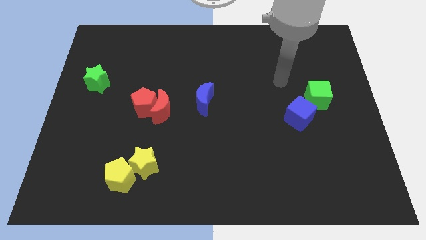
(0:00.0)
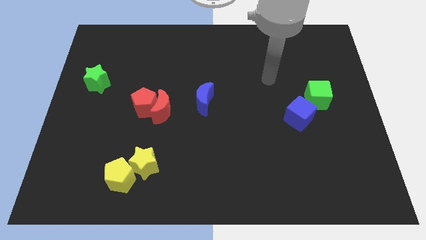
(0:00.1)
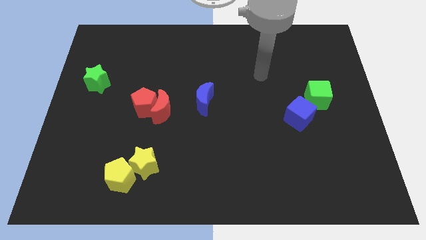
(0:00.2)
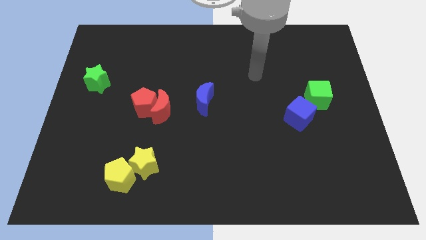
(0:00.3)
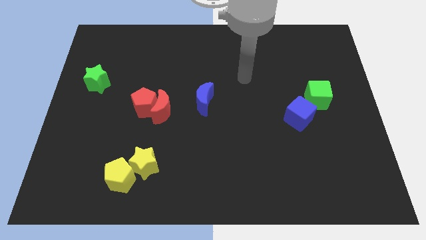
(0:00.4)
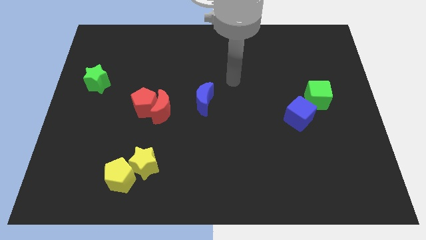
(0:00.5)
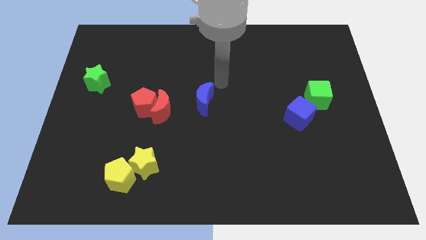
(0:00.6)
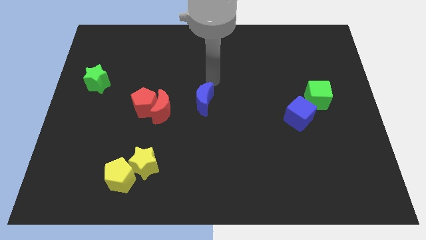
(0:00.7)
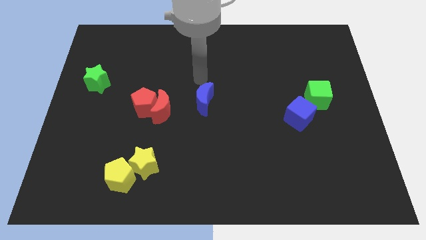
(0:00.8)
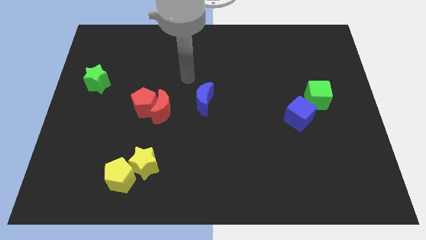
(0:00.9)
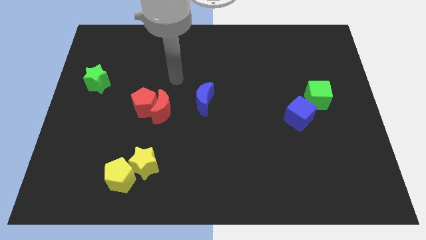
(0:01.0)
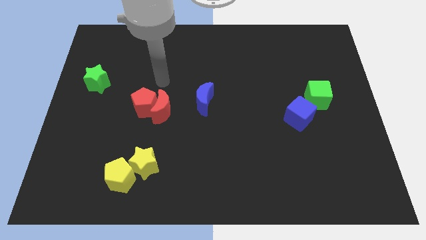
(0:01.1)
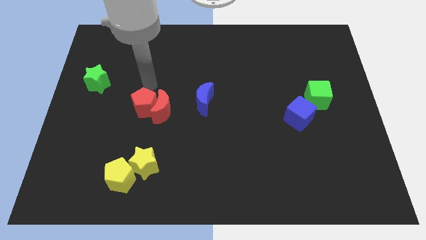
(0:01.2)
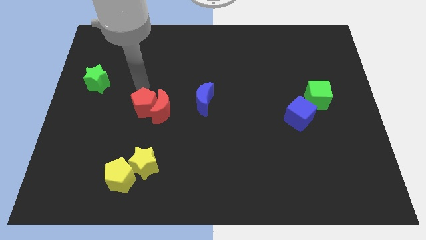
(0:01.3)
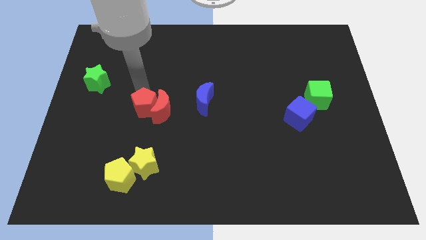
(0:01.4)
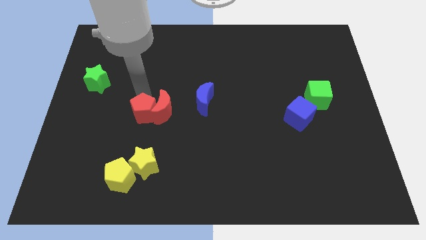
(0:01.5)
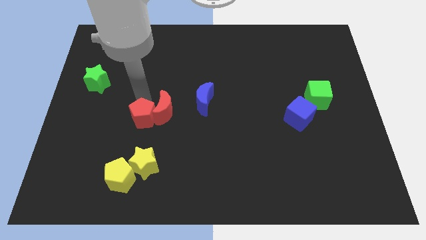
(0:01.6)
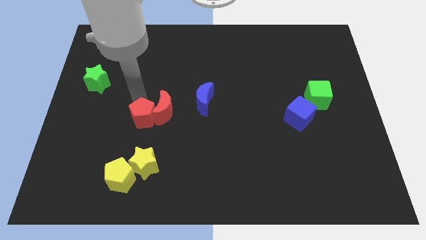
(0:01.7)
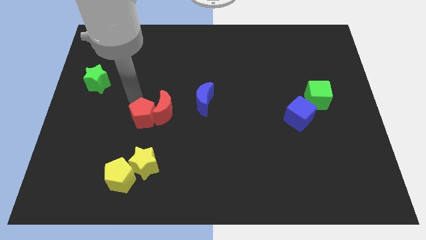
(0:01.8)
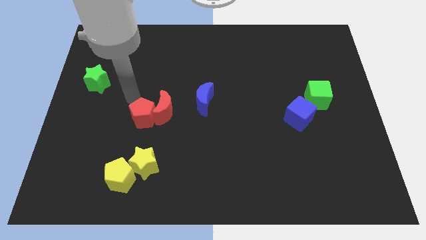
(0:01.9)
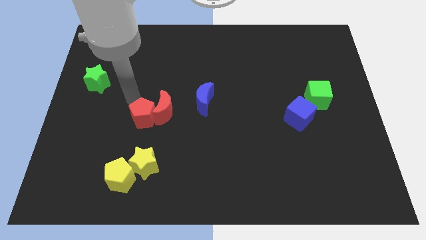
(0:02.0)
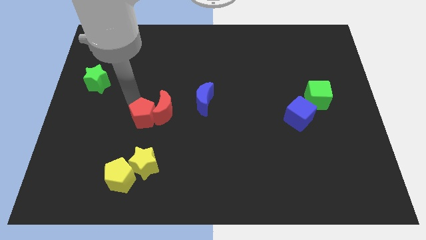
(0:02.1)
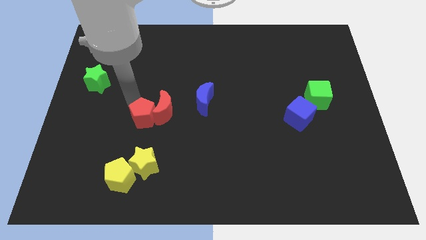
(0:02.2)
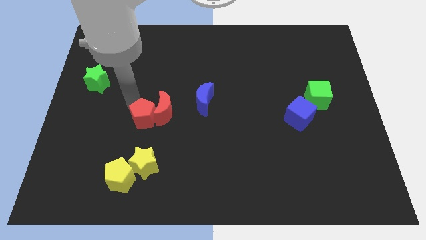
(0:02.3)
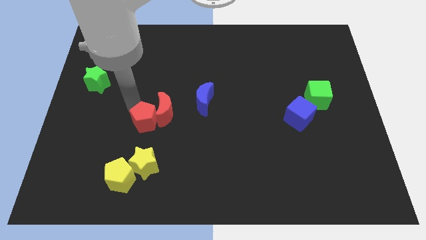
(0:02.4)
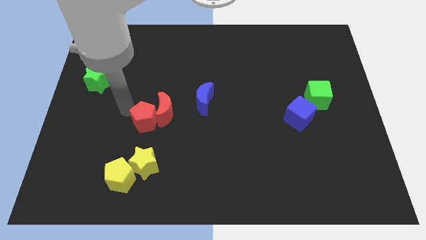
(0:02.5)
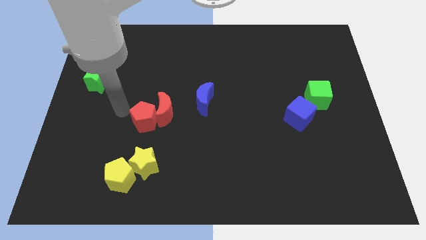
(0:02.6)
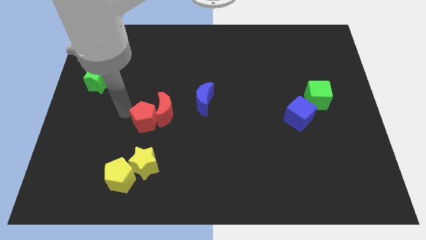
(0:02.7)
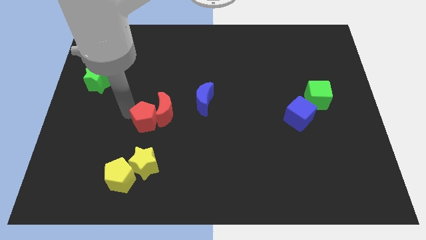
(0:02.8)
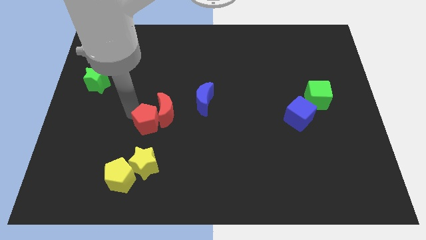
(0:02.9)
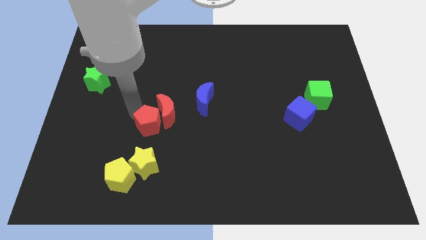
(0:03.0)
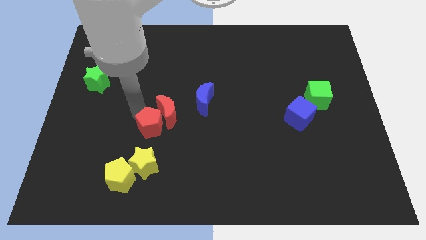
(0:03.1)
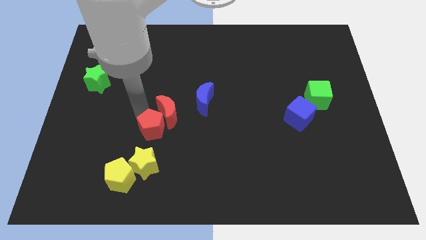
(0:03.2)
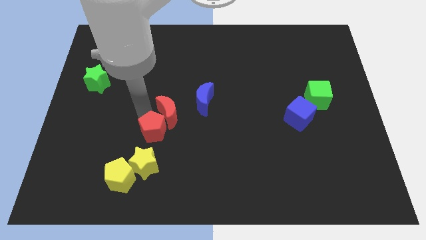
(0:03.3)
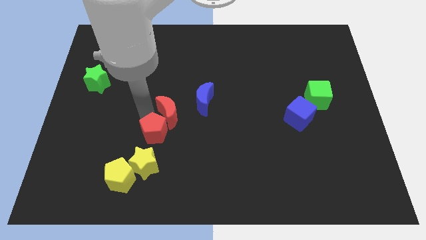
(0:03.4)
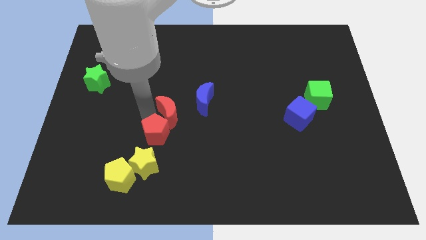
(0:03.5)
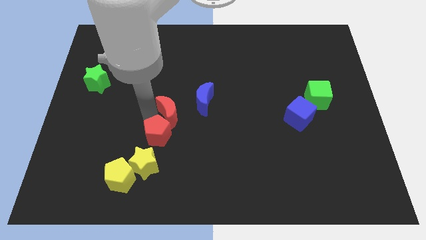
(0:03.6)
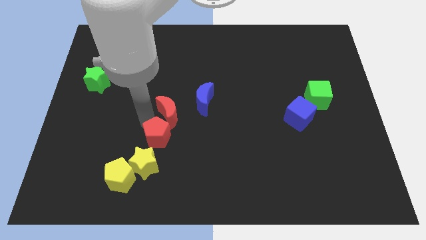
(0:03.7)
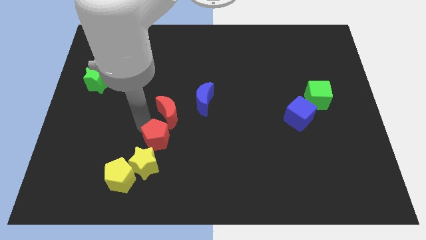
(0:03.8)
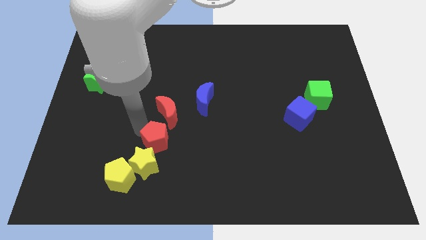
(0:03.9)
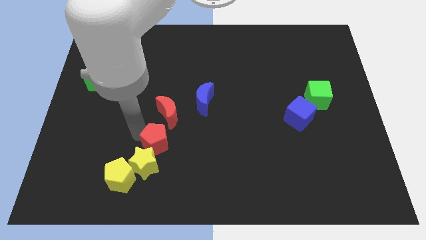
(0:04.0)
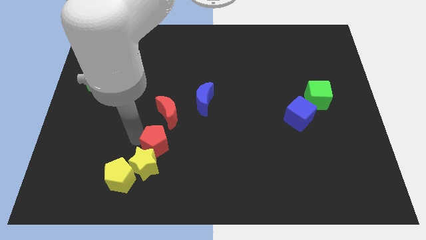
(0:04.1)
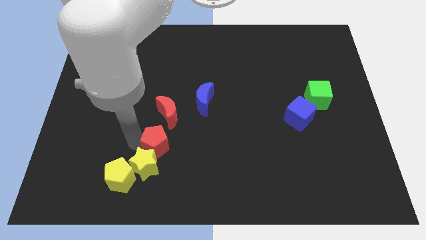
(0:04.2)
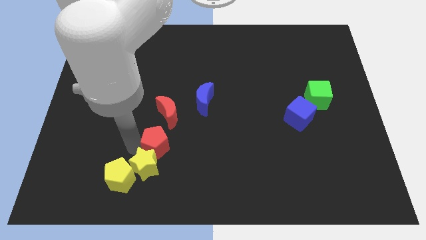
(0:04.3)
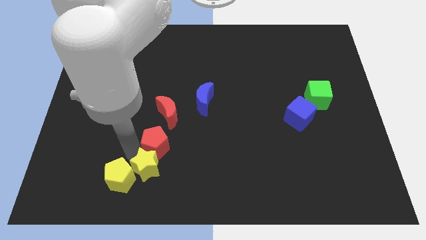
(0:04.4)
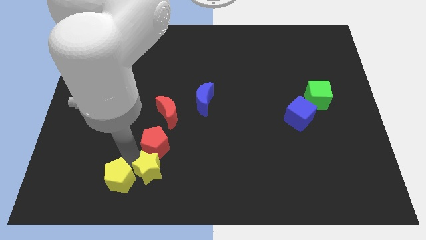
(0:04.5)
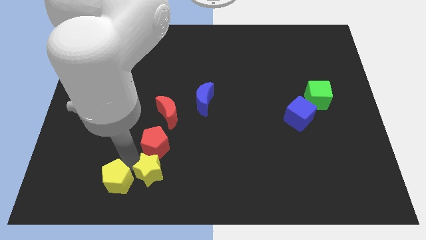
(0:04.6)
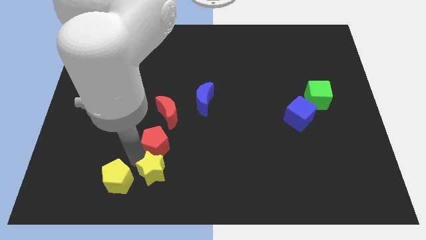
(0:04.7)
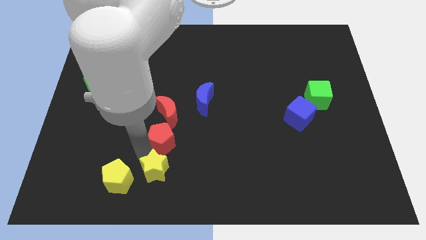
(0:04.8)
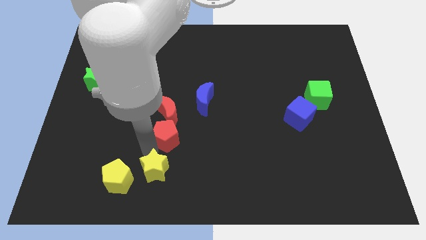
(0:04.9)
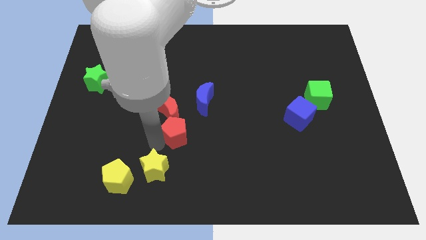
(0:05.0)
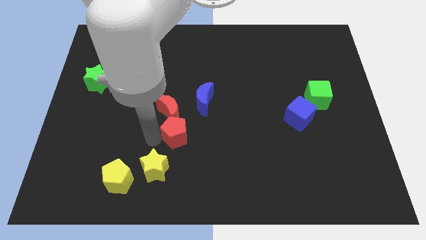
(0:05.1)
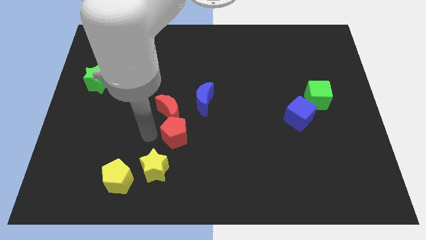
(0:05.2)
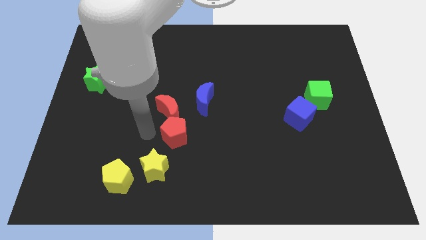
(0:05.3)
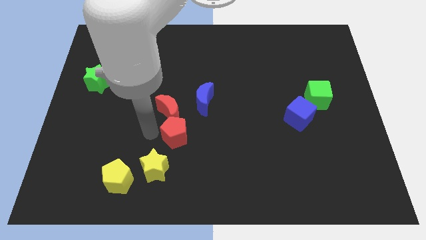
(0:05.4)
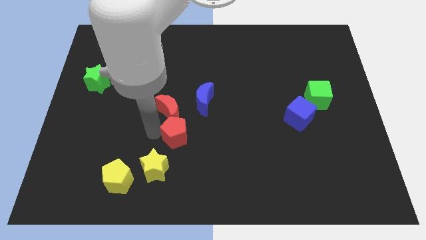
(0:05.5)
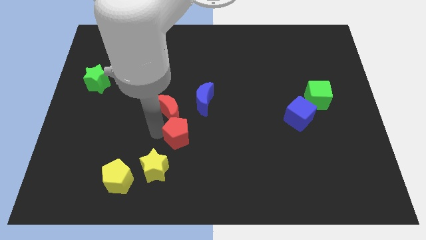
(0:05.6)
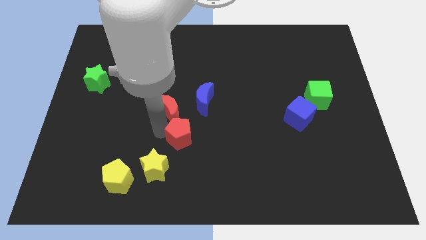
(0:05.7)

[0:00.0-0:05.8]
push the red pentagon to the bottom of the blue moon

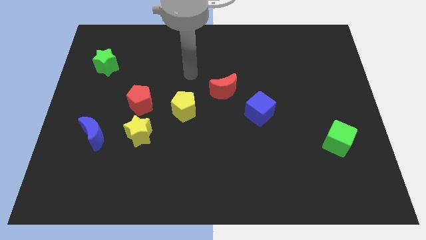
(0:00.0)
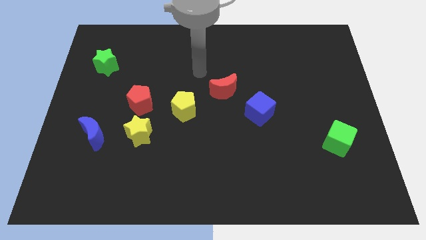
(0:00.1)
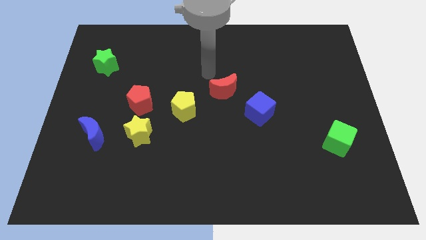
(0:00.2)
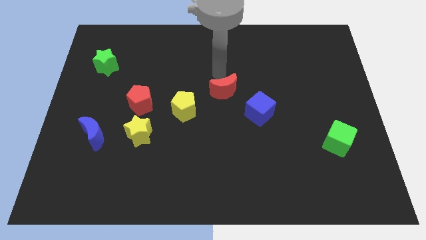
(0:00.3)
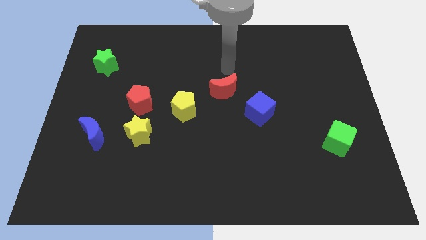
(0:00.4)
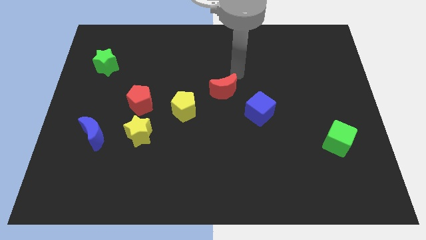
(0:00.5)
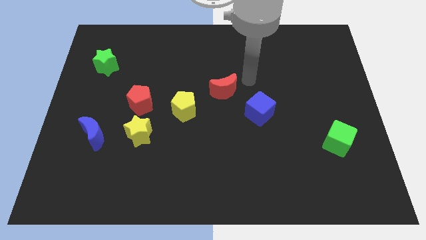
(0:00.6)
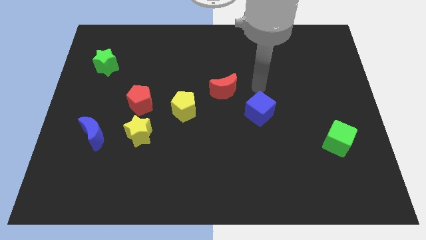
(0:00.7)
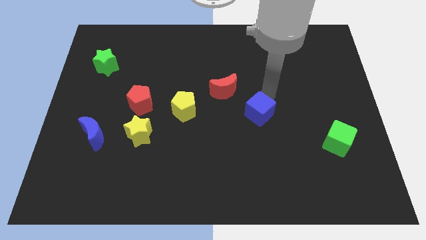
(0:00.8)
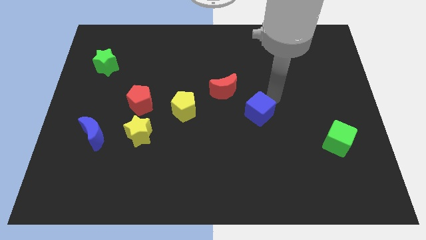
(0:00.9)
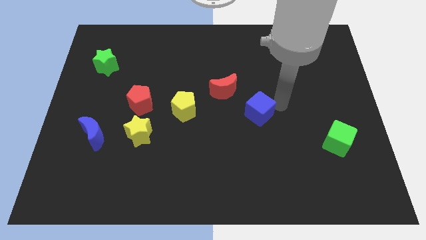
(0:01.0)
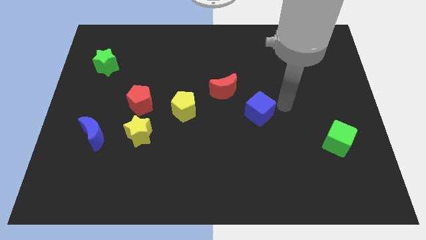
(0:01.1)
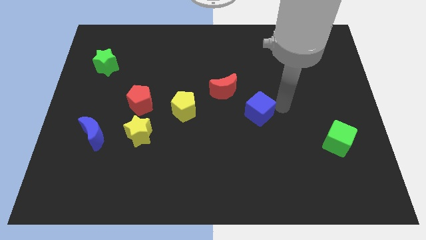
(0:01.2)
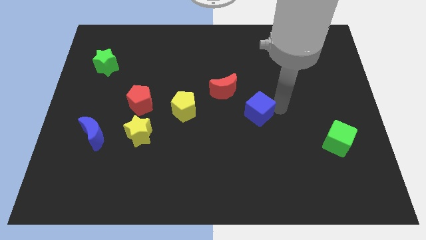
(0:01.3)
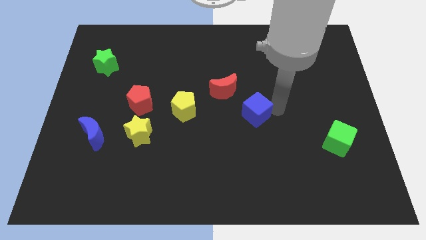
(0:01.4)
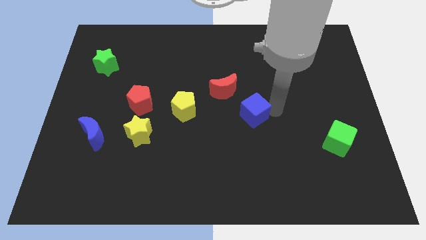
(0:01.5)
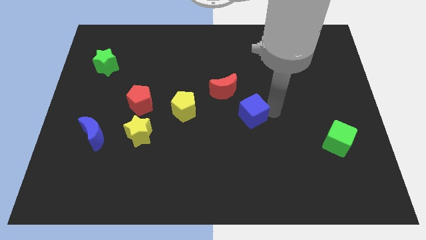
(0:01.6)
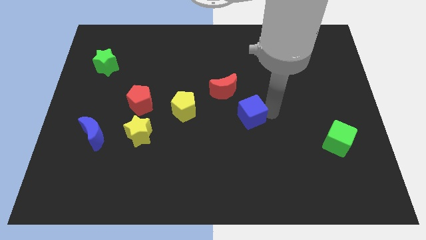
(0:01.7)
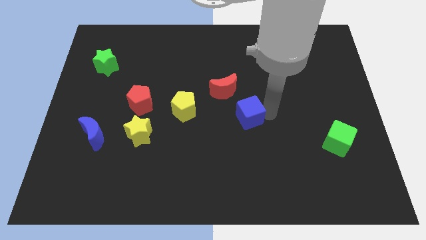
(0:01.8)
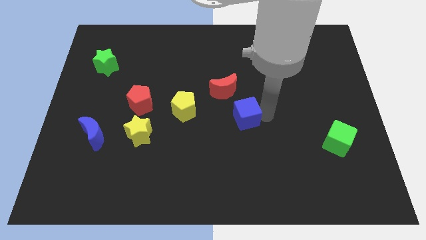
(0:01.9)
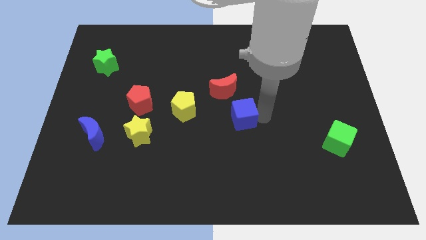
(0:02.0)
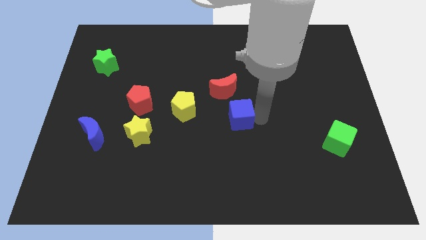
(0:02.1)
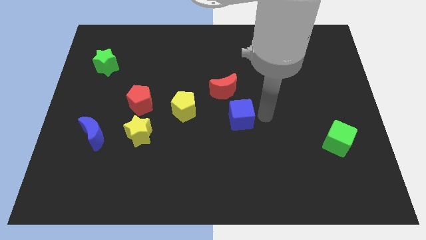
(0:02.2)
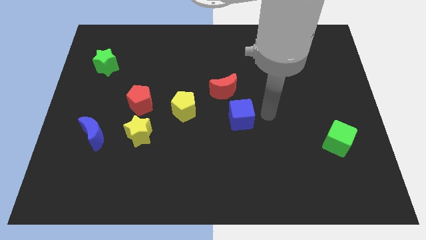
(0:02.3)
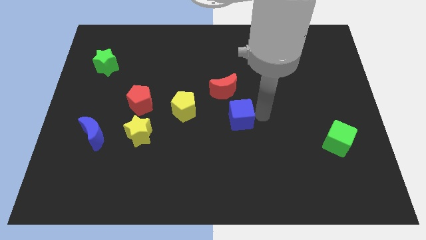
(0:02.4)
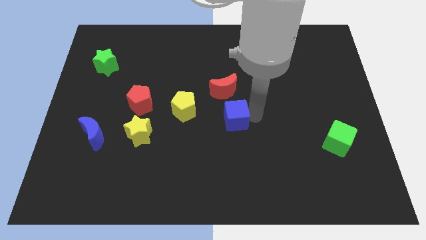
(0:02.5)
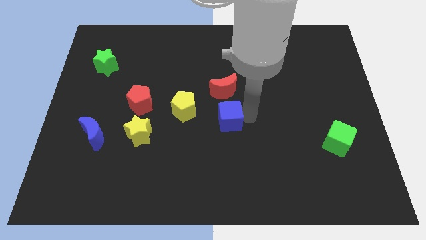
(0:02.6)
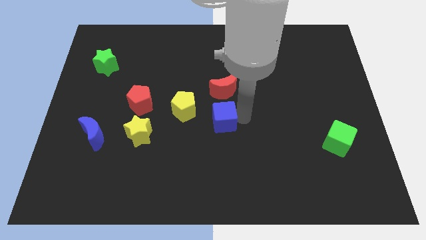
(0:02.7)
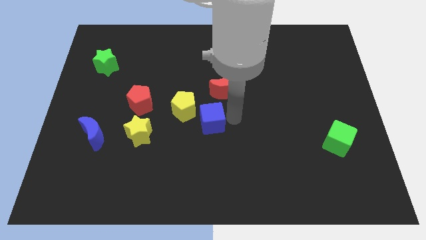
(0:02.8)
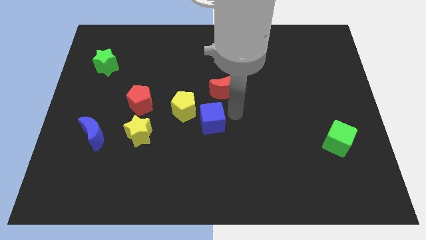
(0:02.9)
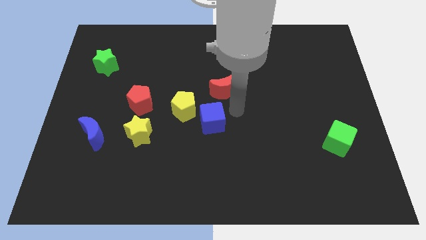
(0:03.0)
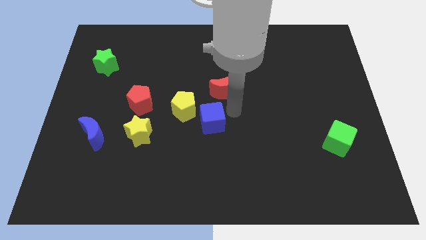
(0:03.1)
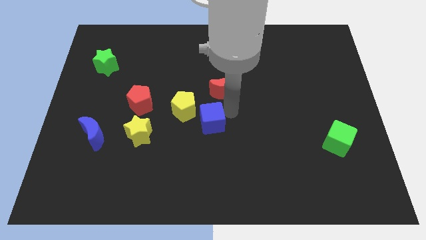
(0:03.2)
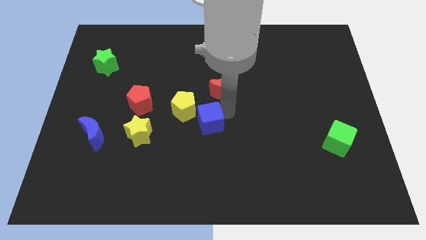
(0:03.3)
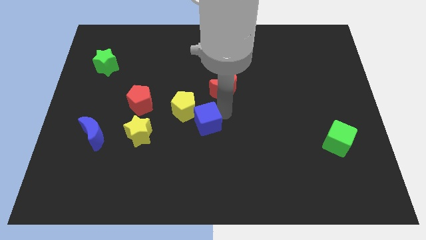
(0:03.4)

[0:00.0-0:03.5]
put the blue cube just right of the yellow star
